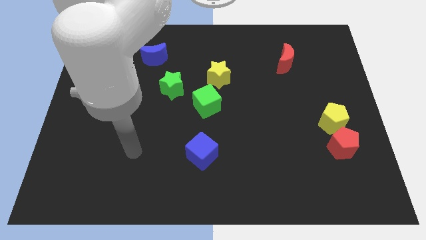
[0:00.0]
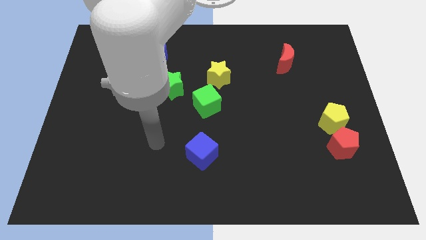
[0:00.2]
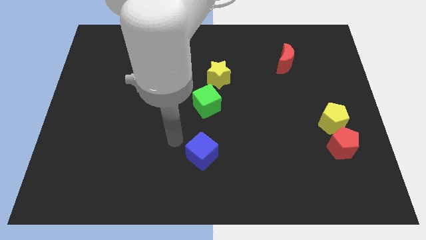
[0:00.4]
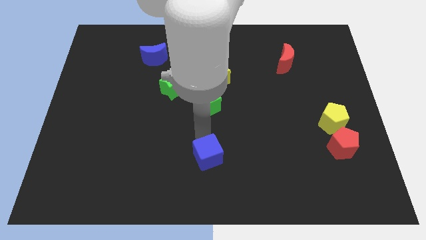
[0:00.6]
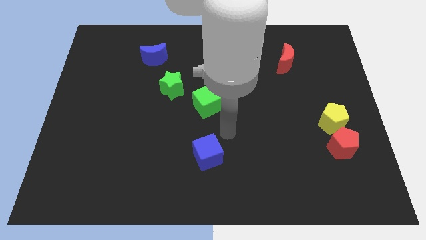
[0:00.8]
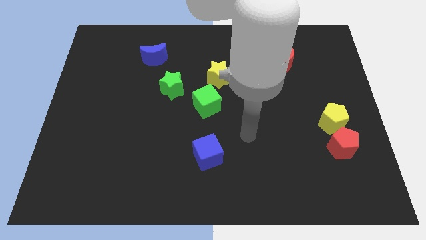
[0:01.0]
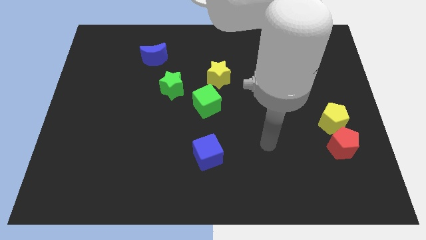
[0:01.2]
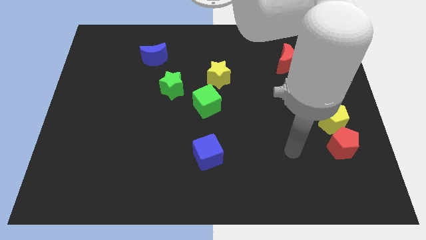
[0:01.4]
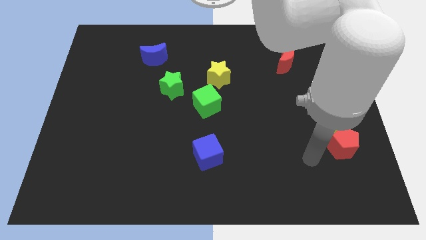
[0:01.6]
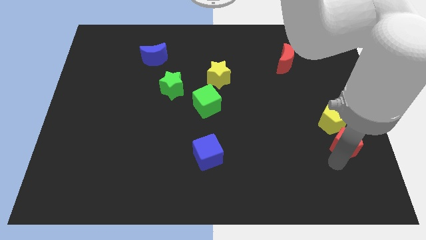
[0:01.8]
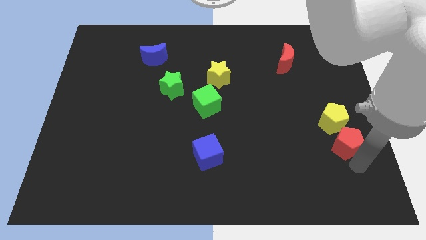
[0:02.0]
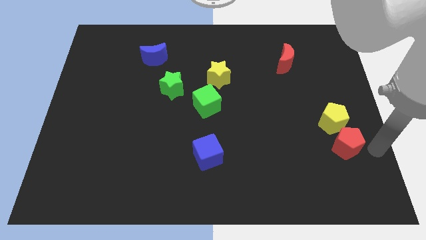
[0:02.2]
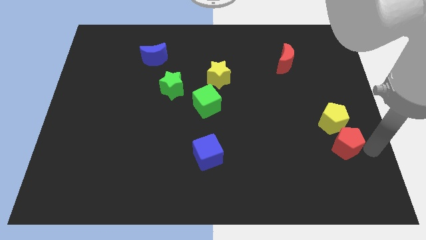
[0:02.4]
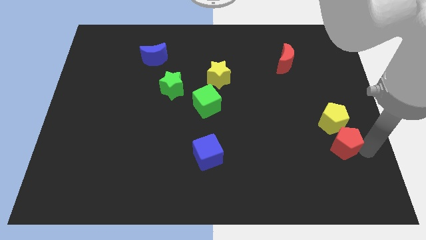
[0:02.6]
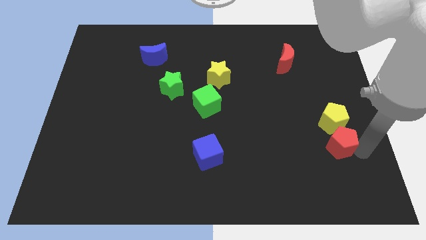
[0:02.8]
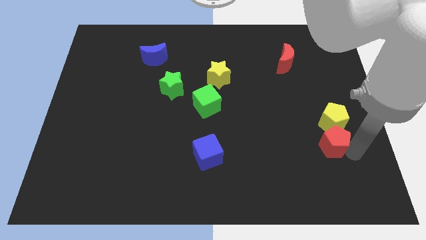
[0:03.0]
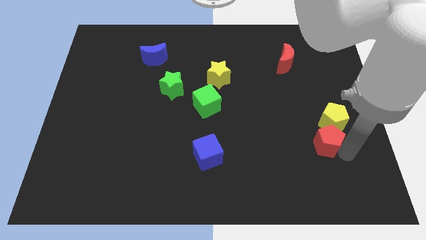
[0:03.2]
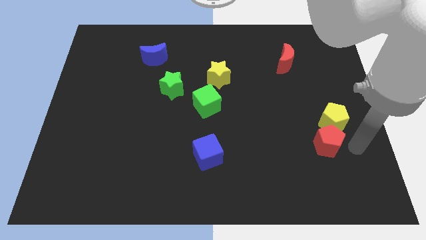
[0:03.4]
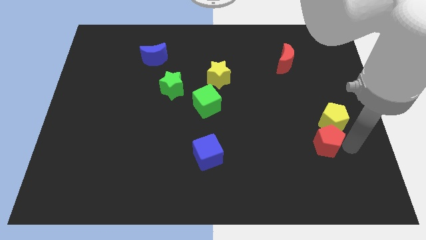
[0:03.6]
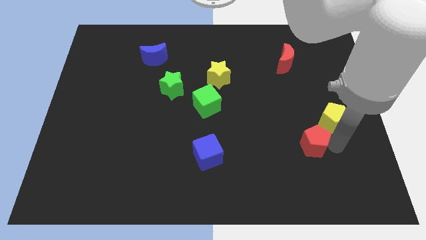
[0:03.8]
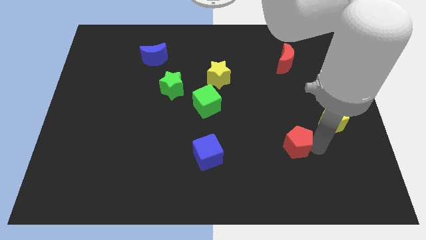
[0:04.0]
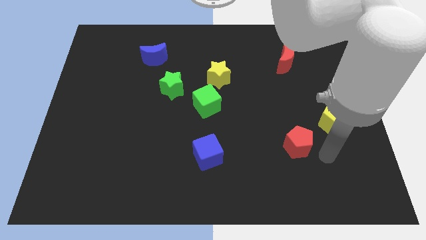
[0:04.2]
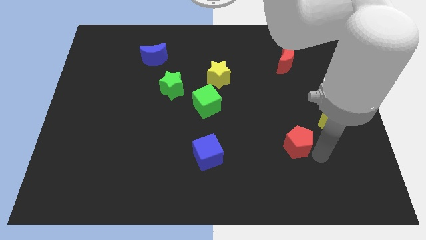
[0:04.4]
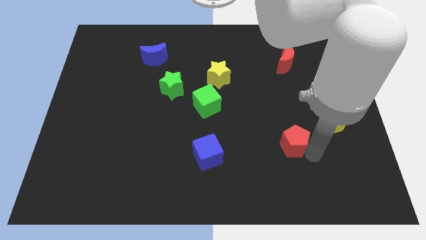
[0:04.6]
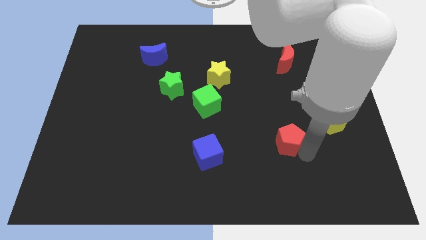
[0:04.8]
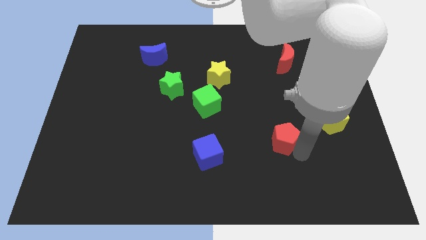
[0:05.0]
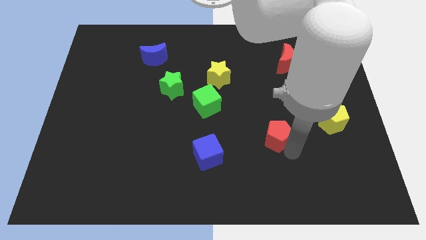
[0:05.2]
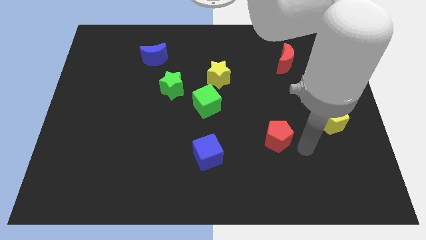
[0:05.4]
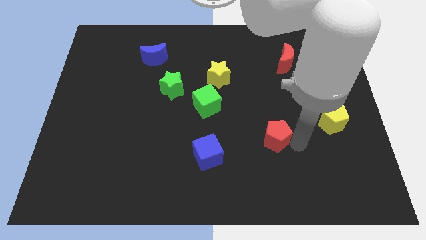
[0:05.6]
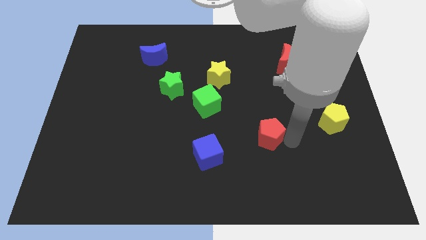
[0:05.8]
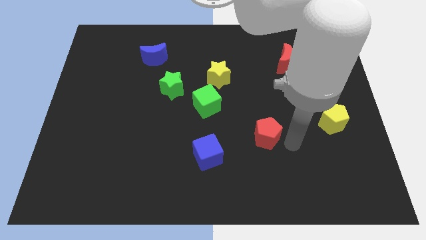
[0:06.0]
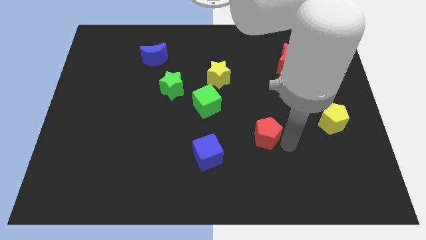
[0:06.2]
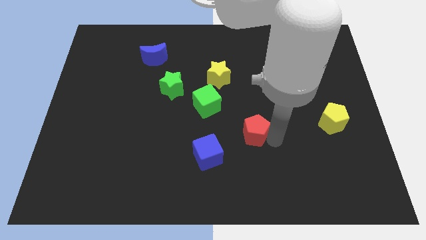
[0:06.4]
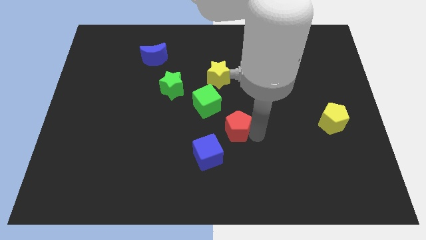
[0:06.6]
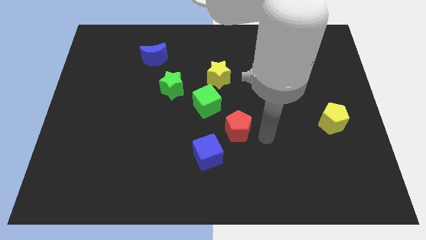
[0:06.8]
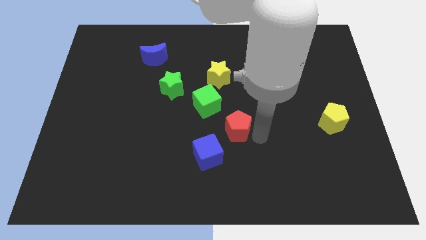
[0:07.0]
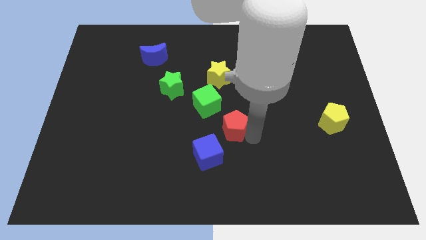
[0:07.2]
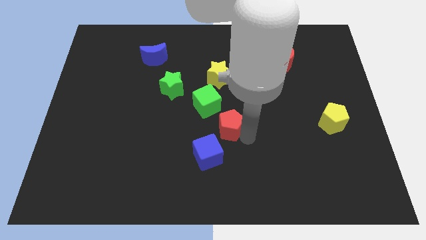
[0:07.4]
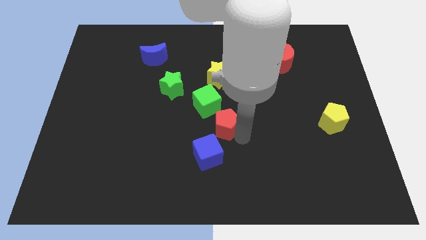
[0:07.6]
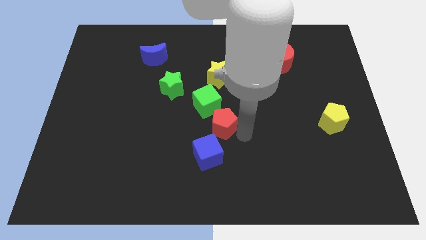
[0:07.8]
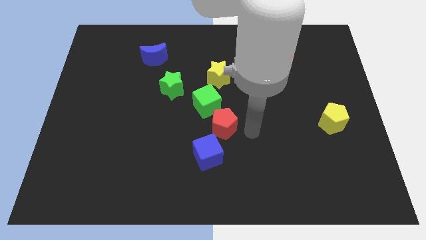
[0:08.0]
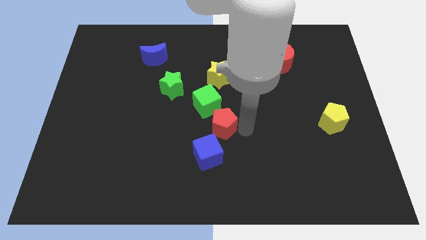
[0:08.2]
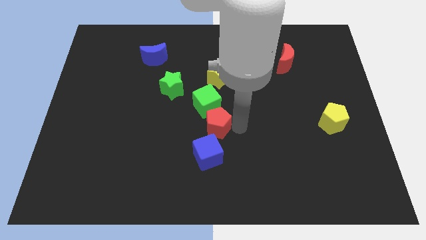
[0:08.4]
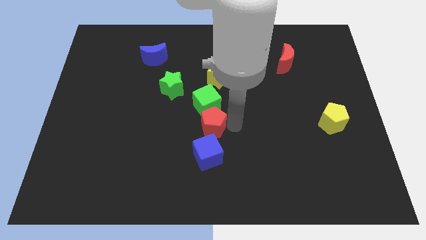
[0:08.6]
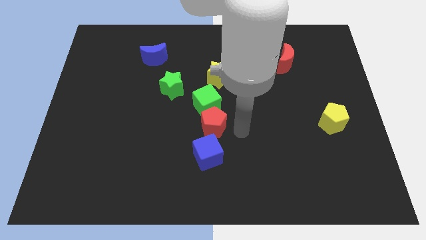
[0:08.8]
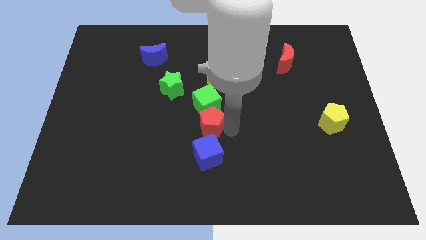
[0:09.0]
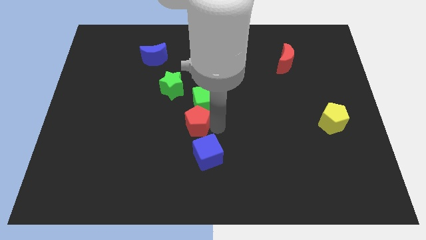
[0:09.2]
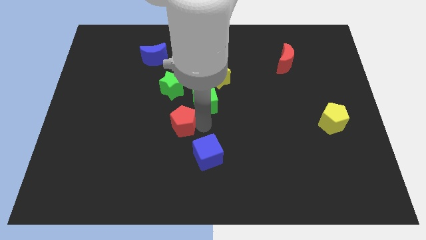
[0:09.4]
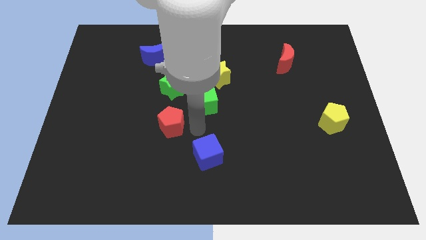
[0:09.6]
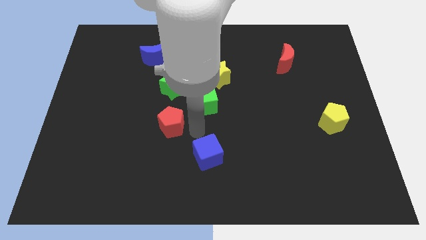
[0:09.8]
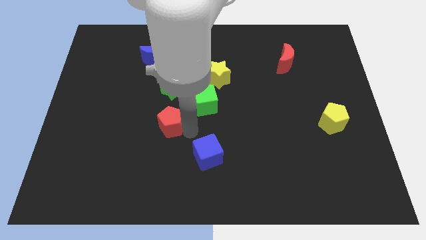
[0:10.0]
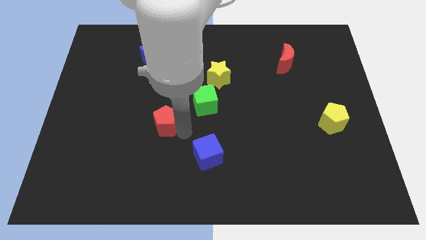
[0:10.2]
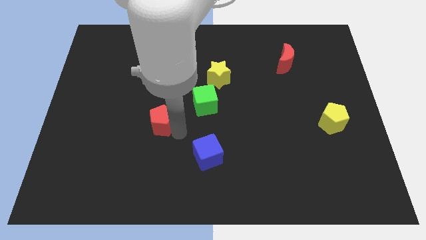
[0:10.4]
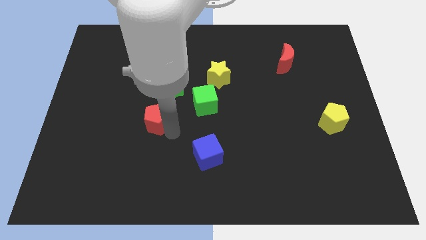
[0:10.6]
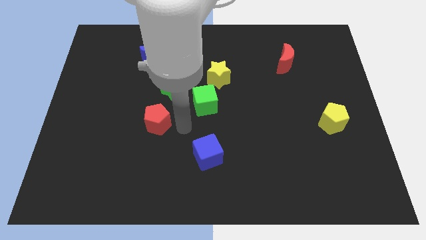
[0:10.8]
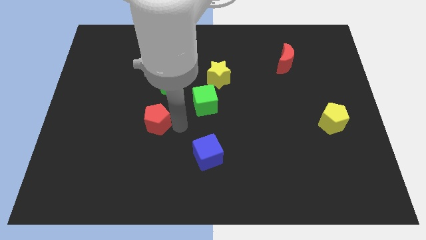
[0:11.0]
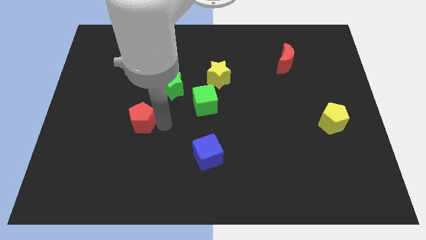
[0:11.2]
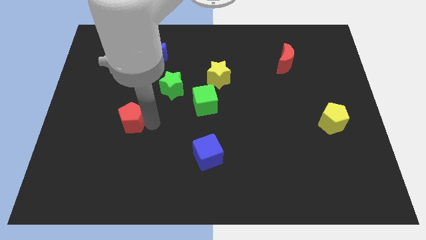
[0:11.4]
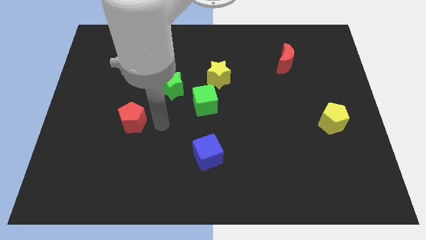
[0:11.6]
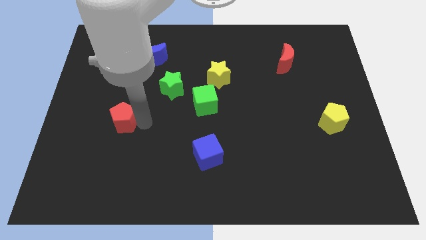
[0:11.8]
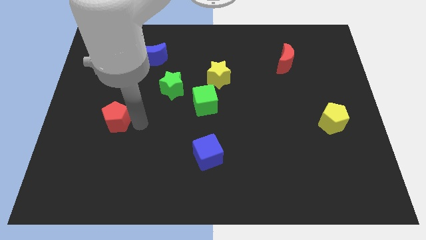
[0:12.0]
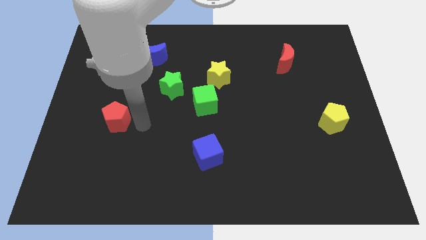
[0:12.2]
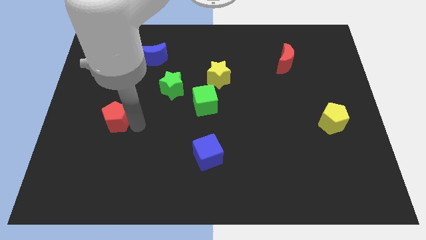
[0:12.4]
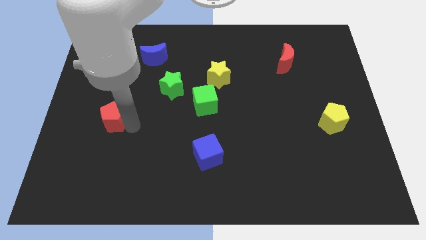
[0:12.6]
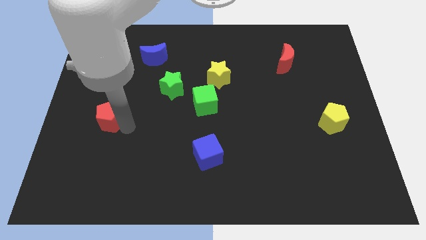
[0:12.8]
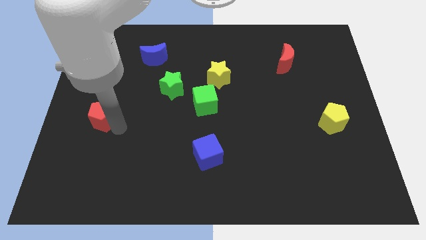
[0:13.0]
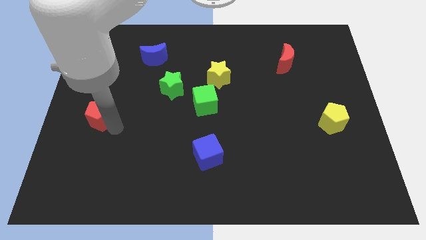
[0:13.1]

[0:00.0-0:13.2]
push the red pentagon to the center left
